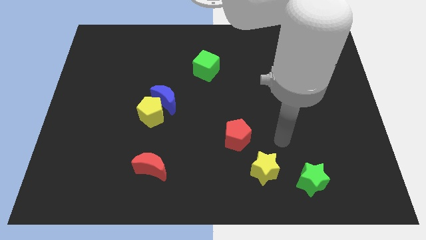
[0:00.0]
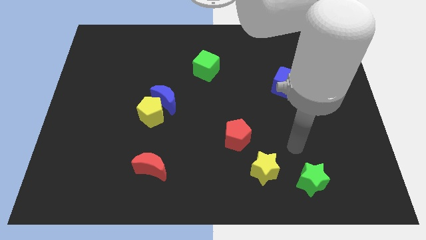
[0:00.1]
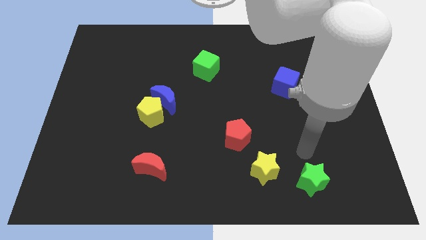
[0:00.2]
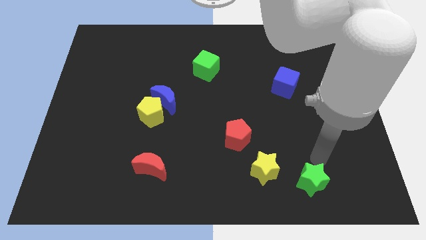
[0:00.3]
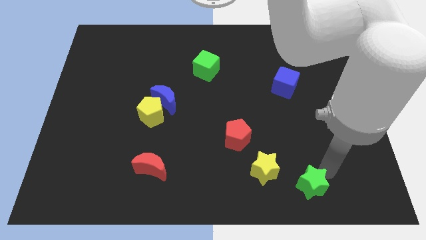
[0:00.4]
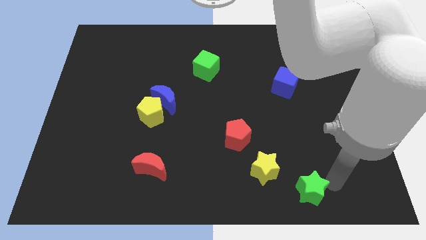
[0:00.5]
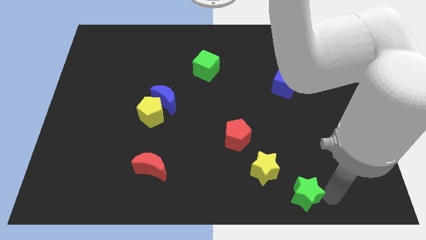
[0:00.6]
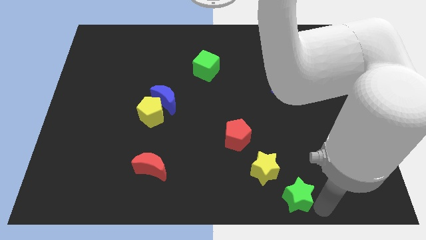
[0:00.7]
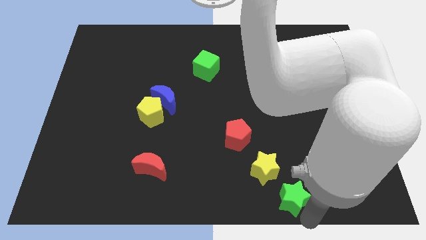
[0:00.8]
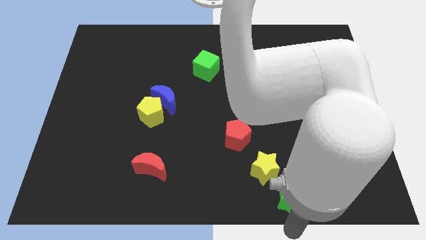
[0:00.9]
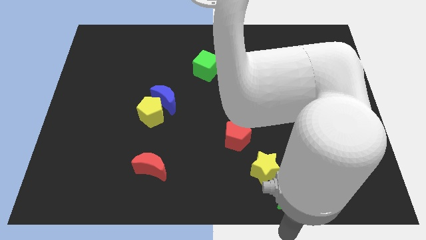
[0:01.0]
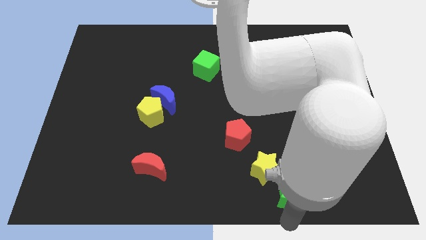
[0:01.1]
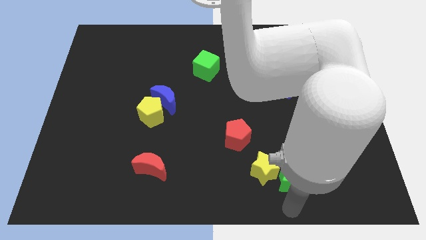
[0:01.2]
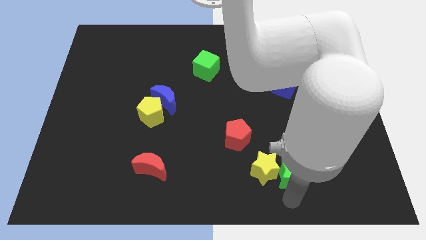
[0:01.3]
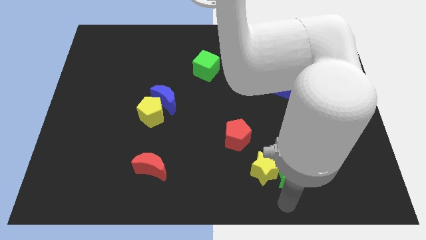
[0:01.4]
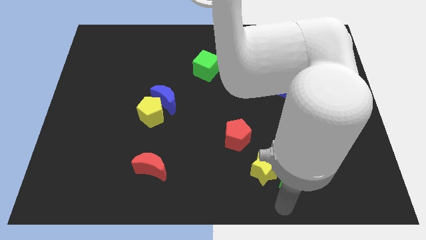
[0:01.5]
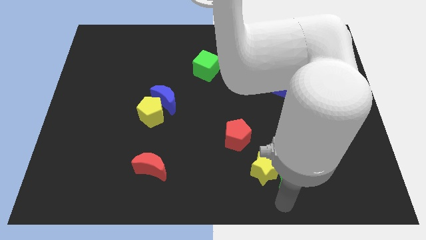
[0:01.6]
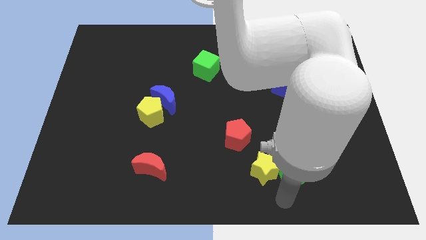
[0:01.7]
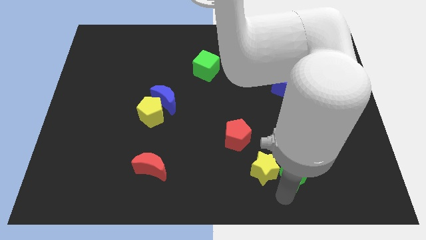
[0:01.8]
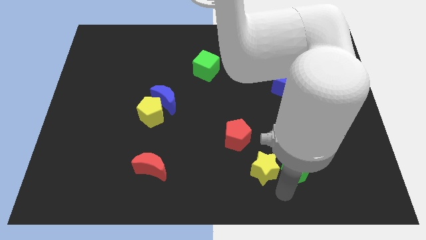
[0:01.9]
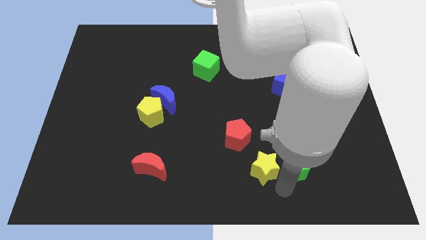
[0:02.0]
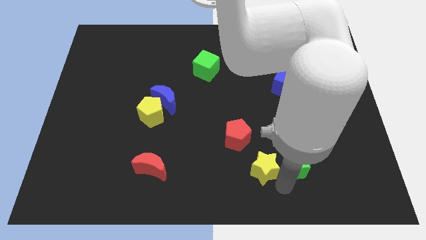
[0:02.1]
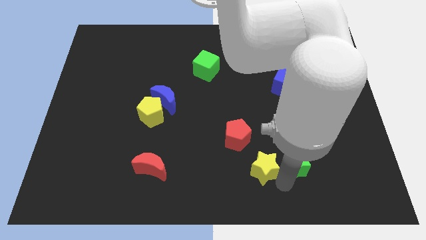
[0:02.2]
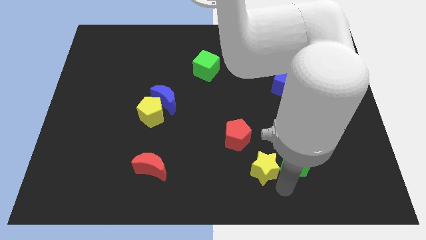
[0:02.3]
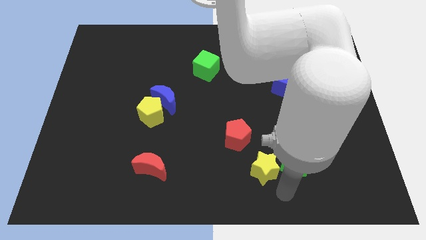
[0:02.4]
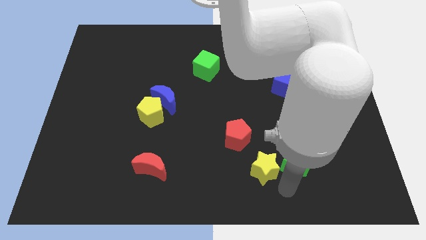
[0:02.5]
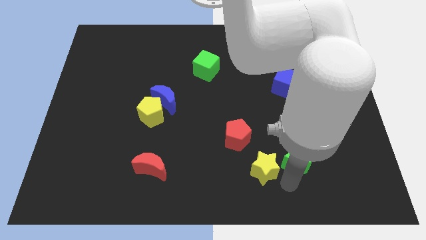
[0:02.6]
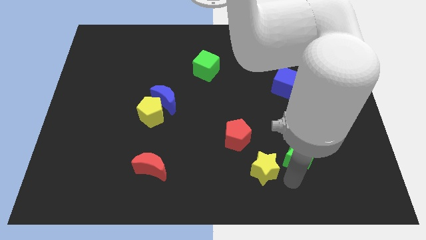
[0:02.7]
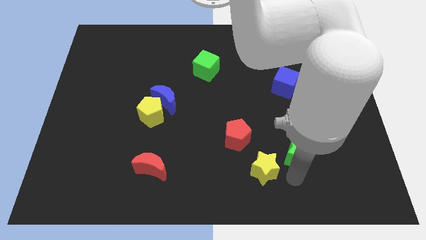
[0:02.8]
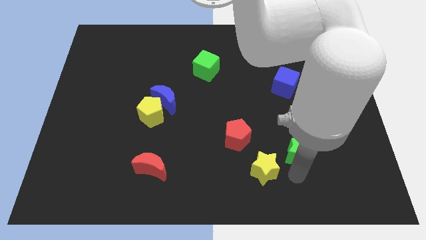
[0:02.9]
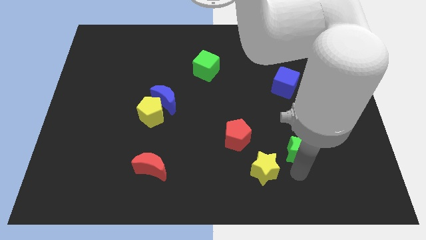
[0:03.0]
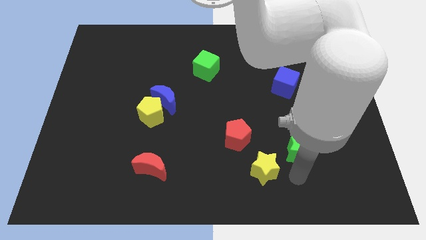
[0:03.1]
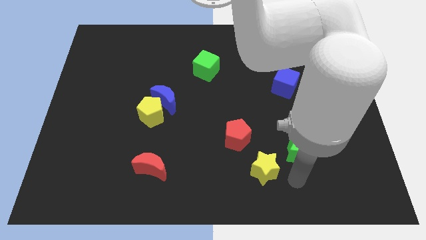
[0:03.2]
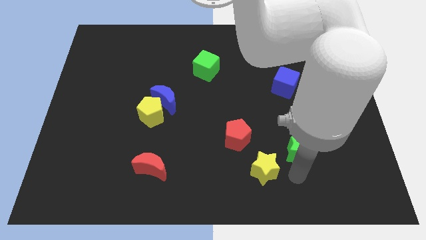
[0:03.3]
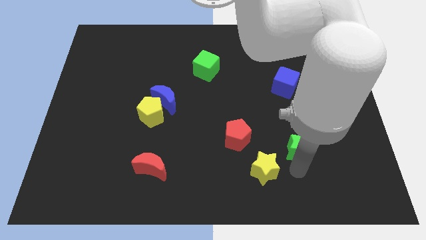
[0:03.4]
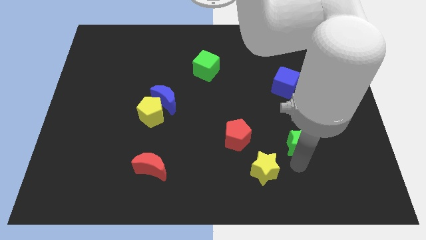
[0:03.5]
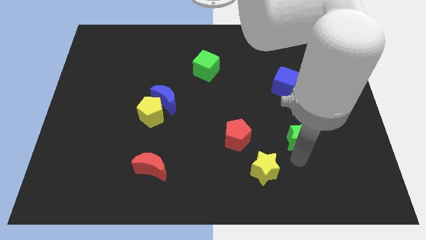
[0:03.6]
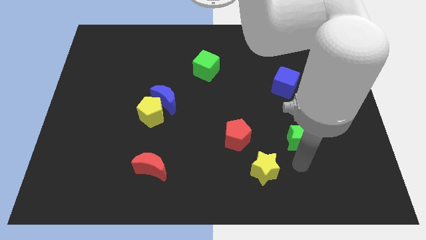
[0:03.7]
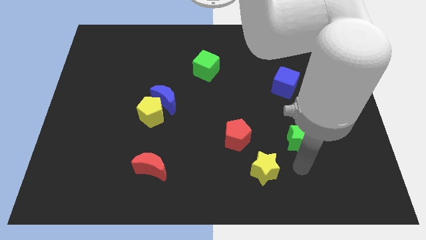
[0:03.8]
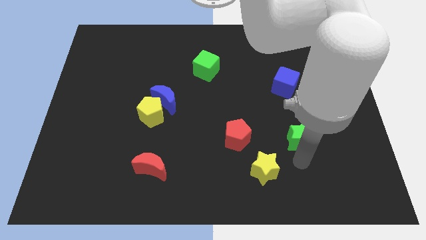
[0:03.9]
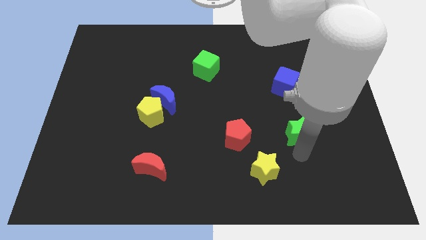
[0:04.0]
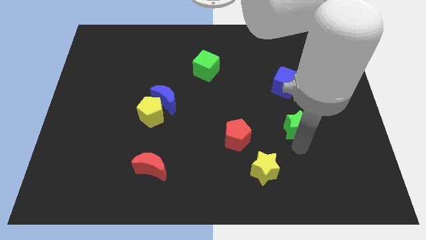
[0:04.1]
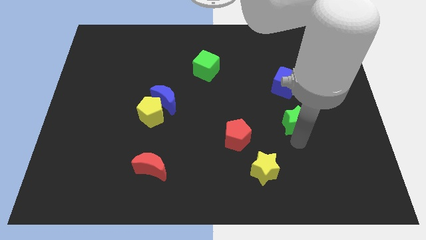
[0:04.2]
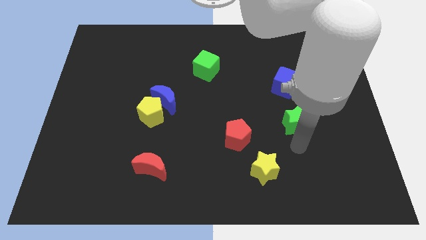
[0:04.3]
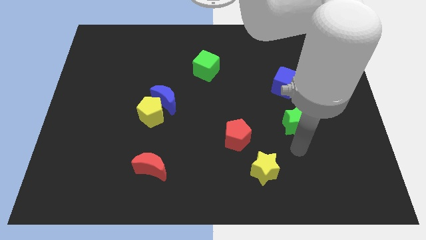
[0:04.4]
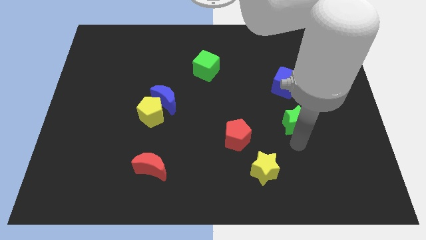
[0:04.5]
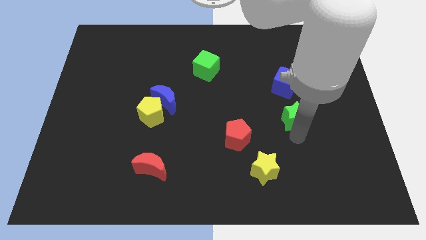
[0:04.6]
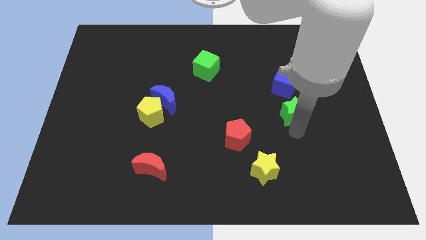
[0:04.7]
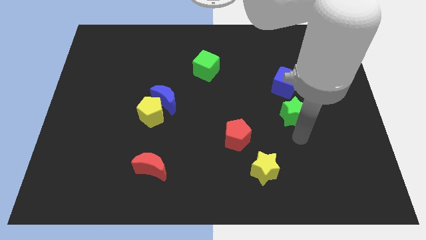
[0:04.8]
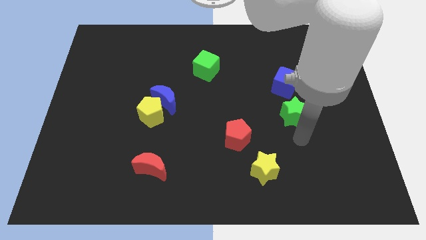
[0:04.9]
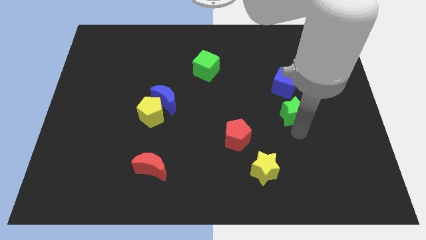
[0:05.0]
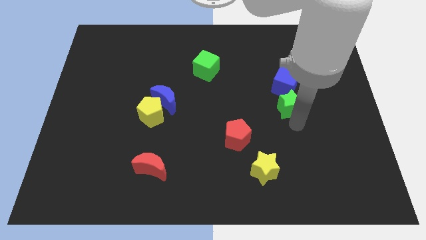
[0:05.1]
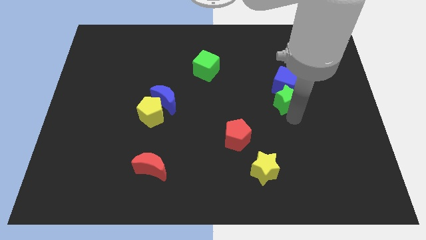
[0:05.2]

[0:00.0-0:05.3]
move the green star close to the blue cube
